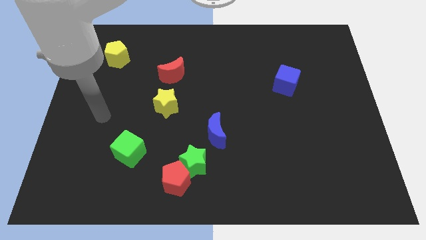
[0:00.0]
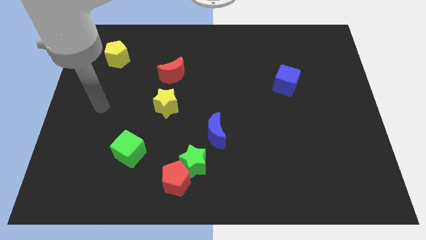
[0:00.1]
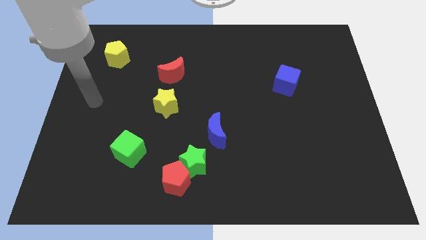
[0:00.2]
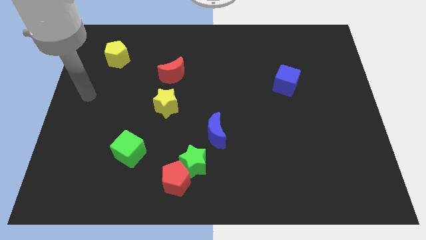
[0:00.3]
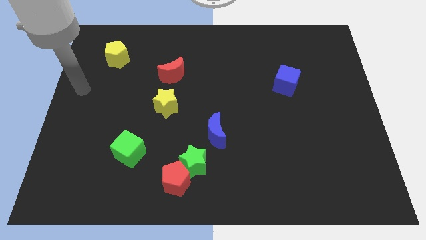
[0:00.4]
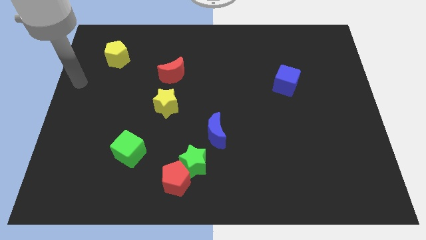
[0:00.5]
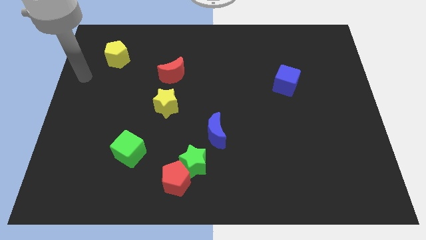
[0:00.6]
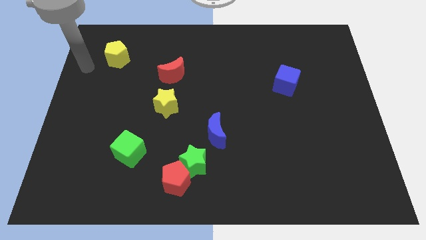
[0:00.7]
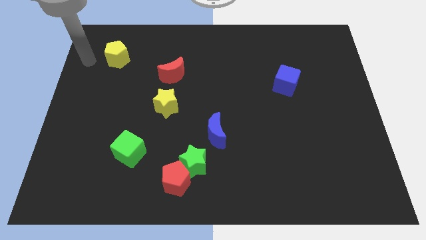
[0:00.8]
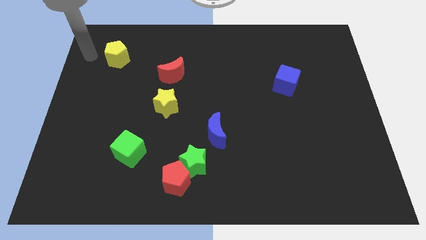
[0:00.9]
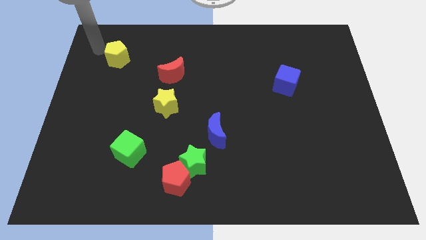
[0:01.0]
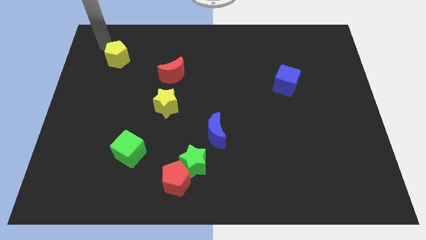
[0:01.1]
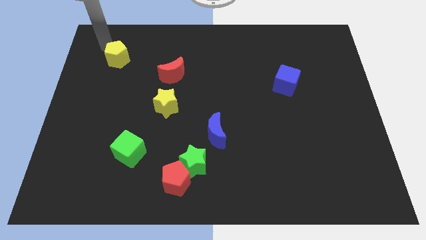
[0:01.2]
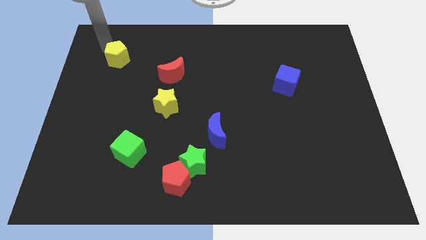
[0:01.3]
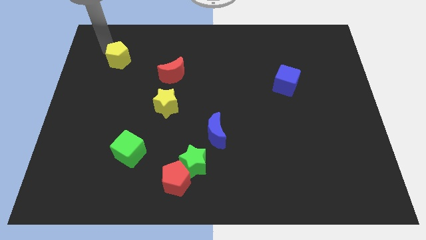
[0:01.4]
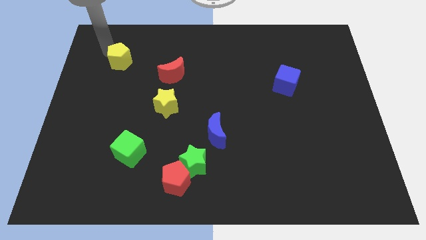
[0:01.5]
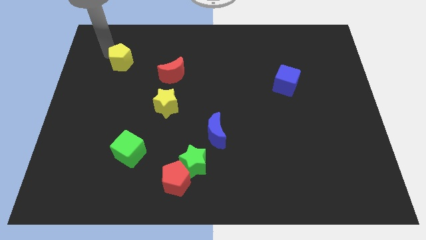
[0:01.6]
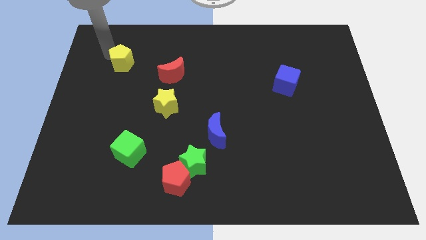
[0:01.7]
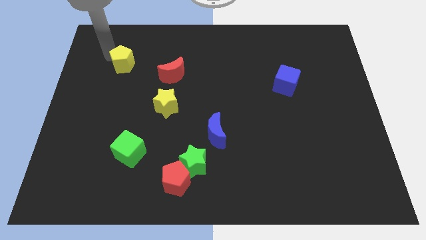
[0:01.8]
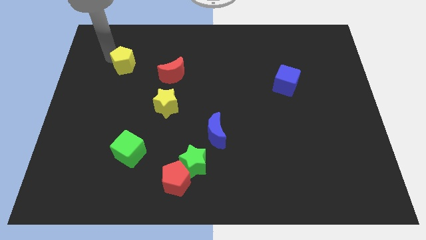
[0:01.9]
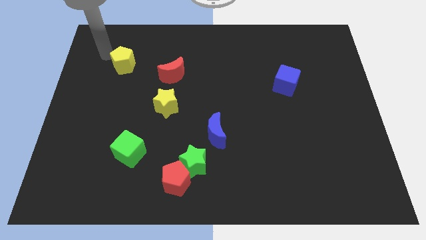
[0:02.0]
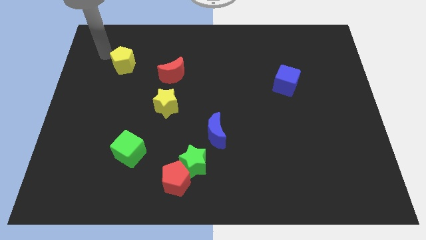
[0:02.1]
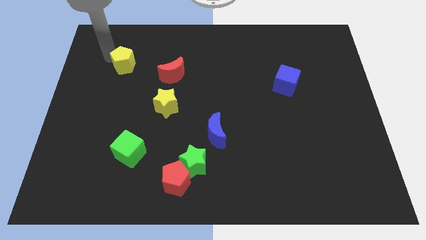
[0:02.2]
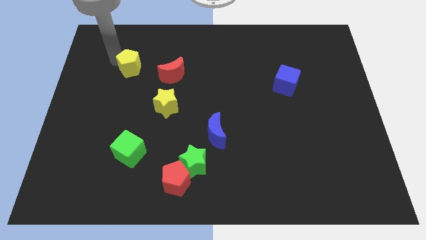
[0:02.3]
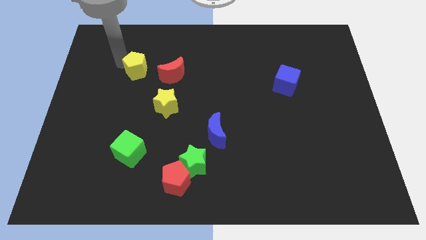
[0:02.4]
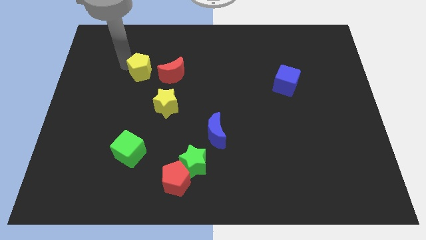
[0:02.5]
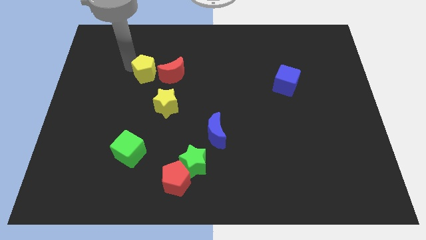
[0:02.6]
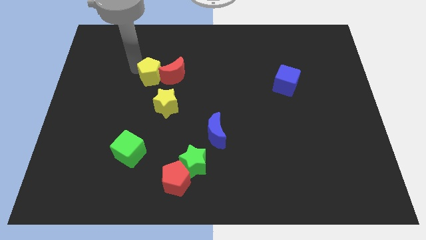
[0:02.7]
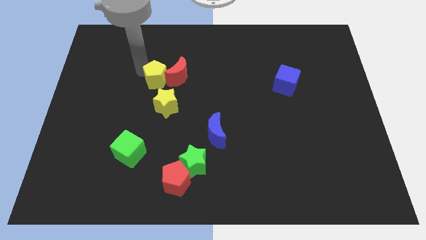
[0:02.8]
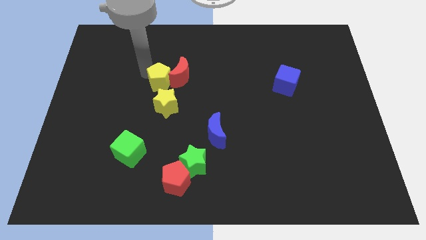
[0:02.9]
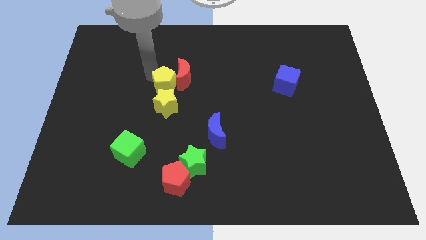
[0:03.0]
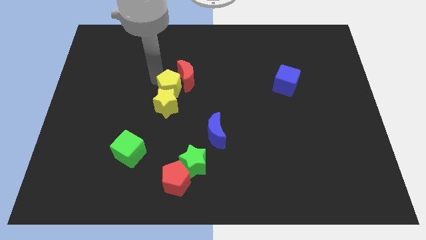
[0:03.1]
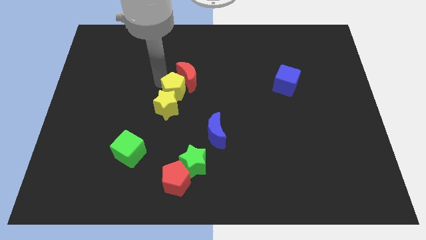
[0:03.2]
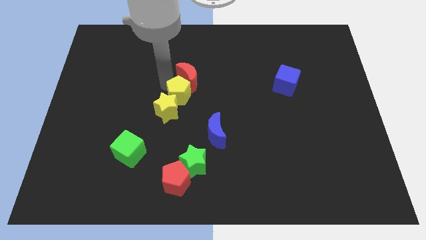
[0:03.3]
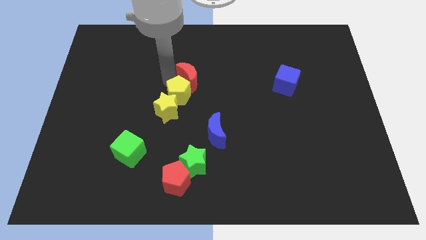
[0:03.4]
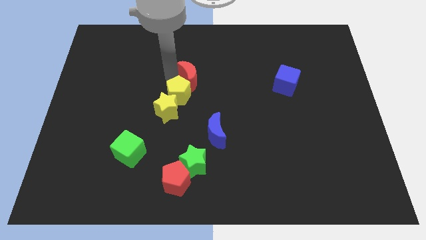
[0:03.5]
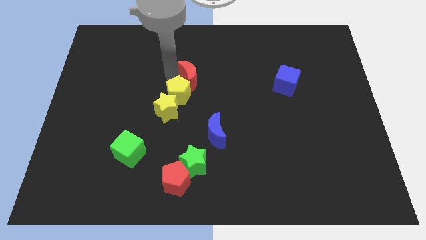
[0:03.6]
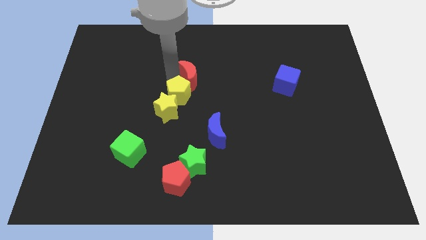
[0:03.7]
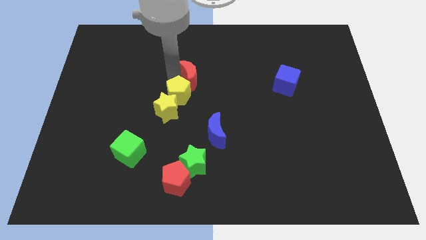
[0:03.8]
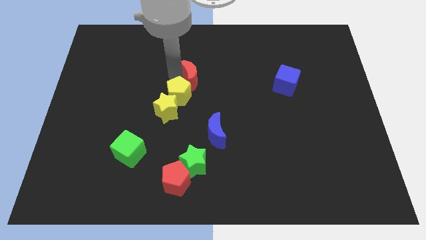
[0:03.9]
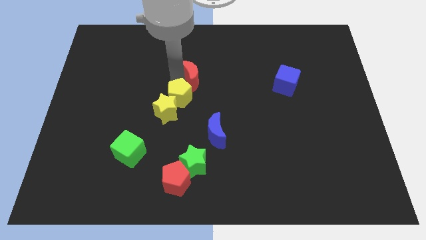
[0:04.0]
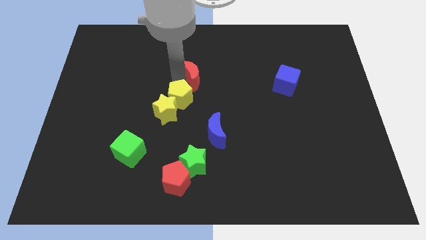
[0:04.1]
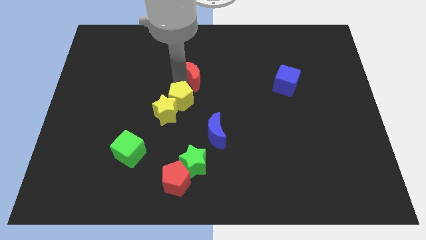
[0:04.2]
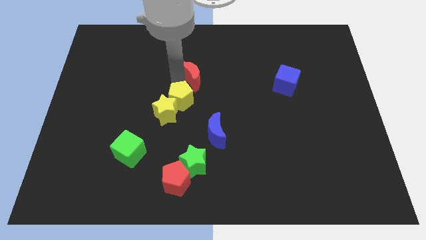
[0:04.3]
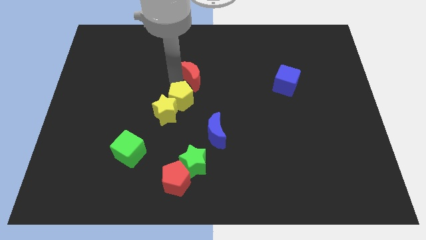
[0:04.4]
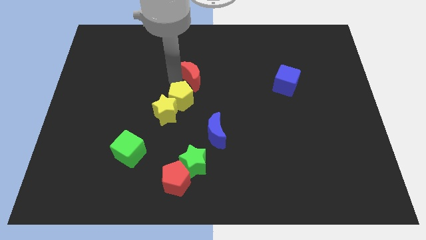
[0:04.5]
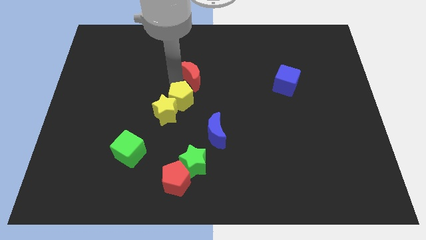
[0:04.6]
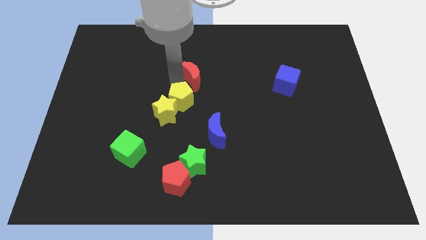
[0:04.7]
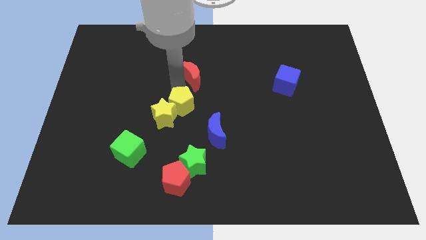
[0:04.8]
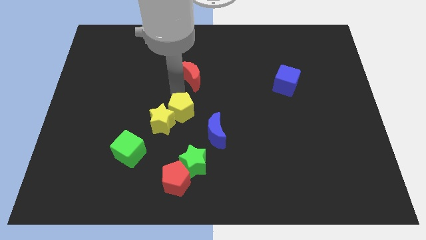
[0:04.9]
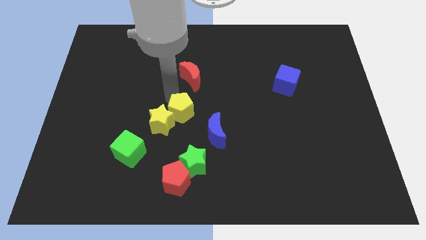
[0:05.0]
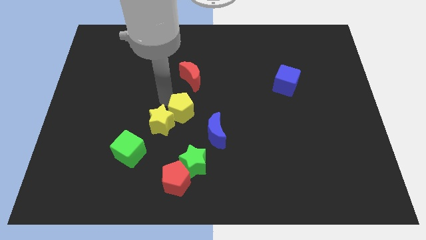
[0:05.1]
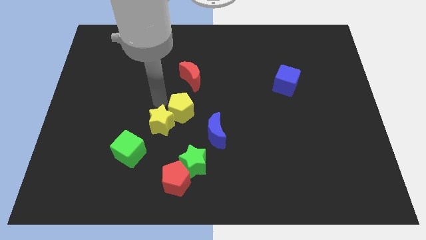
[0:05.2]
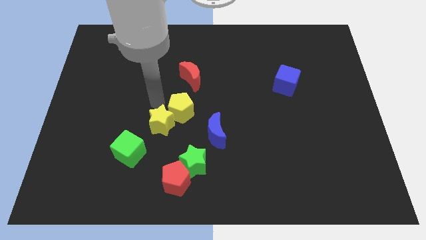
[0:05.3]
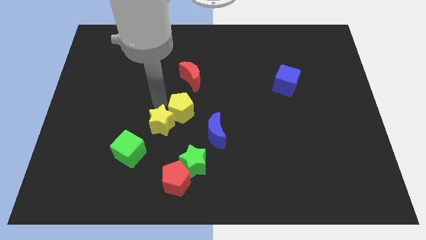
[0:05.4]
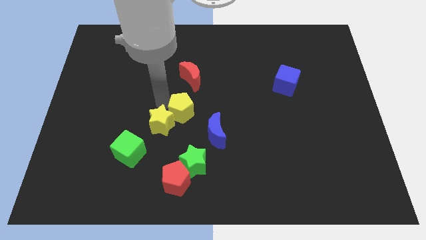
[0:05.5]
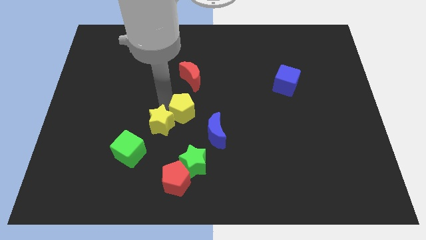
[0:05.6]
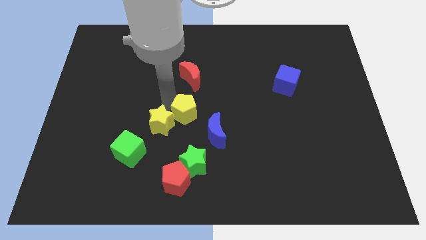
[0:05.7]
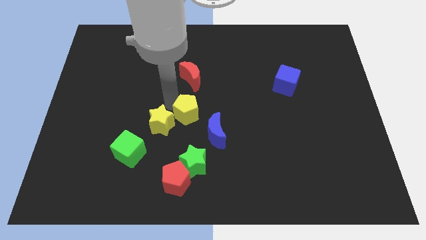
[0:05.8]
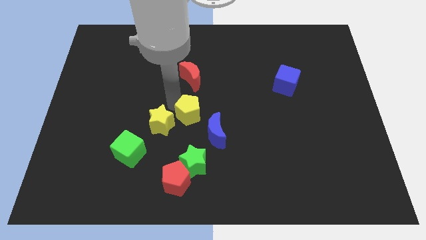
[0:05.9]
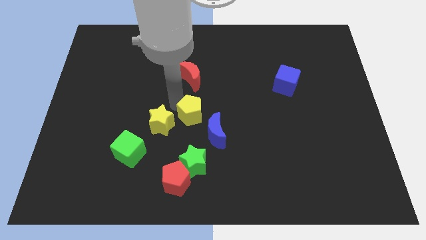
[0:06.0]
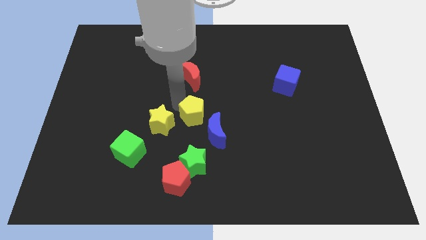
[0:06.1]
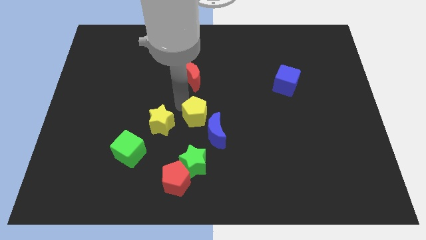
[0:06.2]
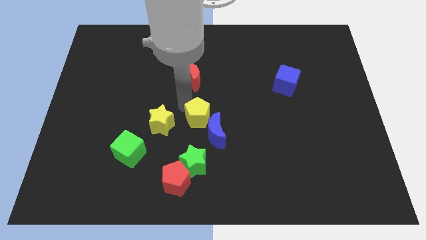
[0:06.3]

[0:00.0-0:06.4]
push the yellow pentagon to the blue moon

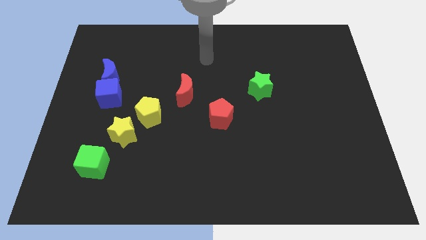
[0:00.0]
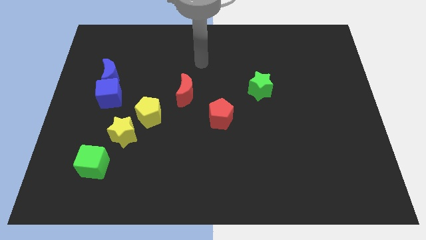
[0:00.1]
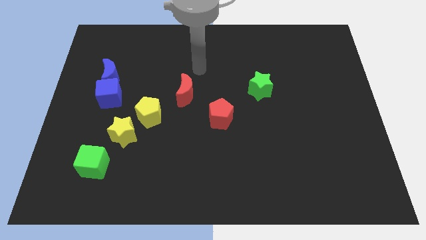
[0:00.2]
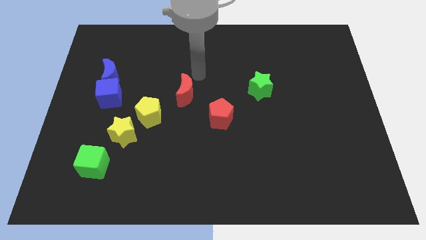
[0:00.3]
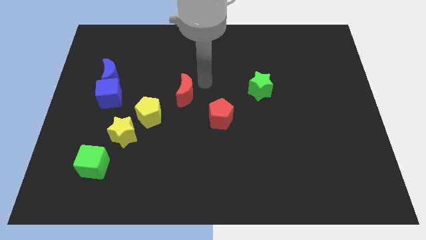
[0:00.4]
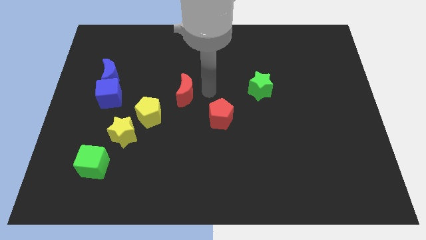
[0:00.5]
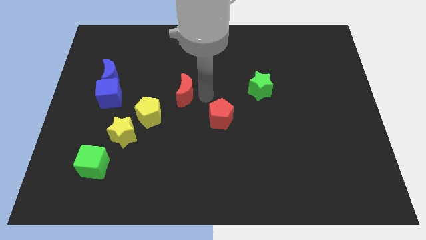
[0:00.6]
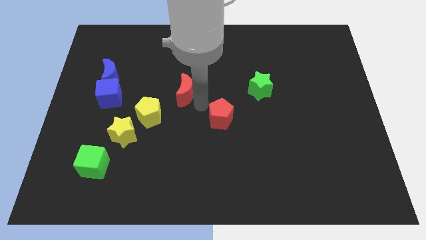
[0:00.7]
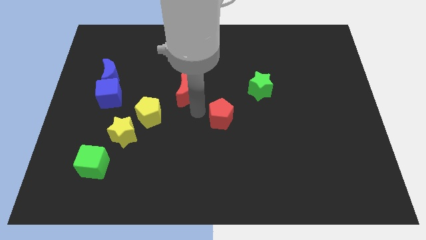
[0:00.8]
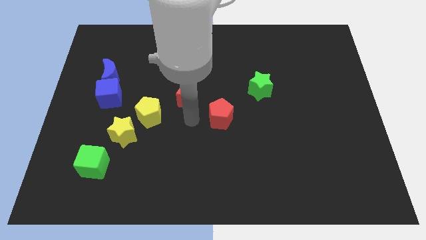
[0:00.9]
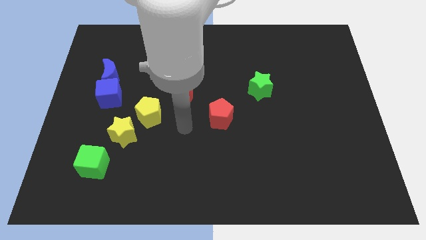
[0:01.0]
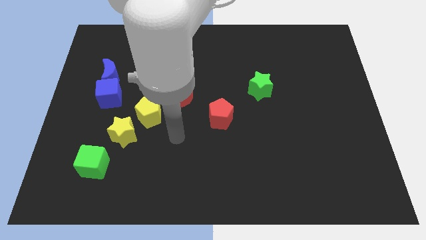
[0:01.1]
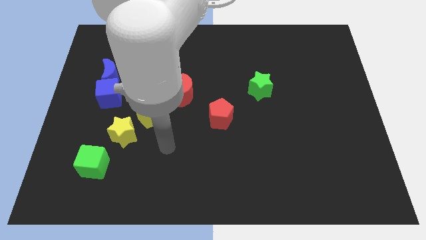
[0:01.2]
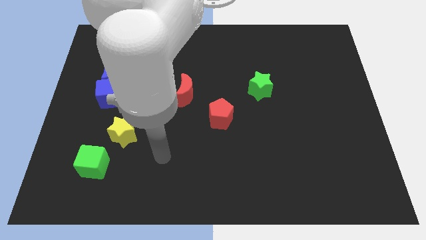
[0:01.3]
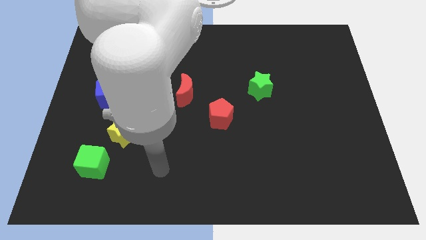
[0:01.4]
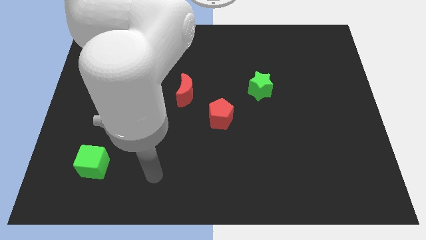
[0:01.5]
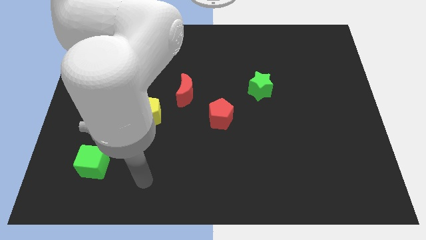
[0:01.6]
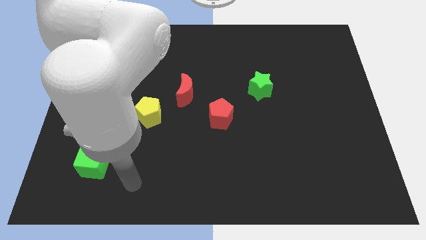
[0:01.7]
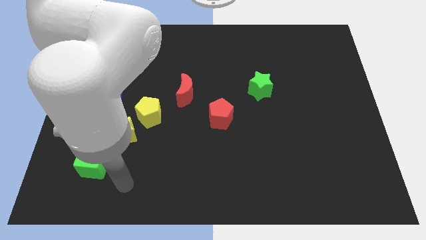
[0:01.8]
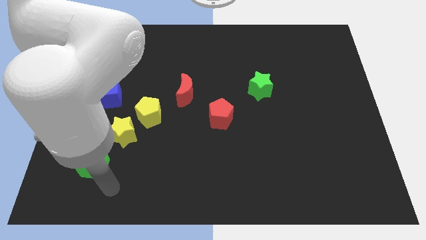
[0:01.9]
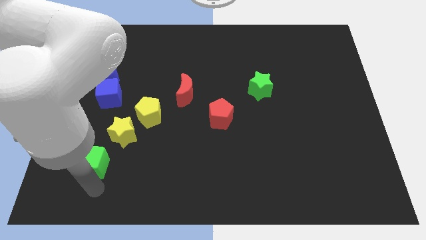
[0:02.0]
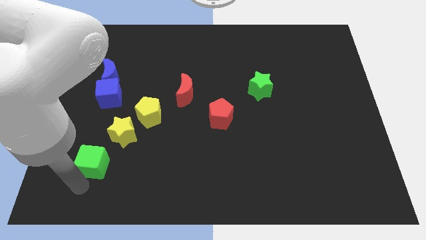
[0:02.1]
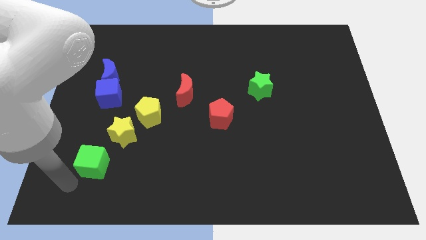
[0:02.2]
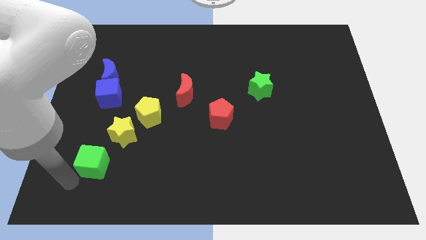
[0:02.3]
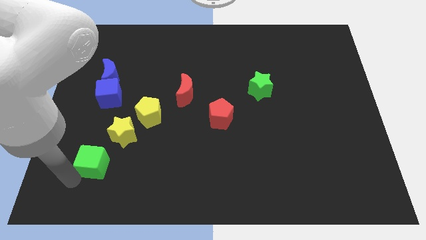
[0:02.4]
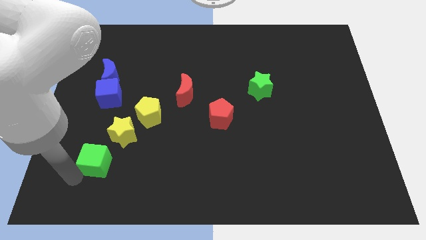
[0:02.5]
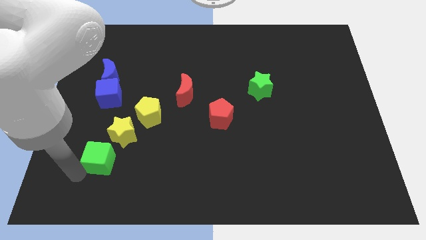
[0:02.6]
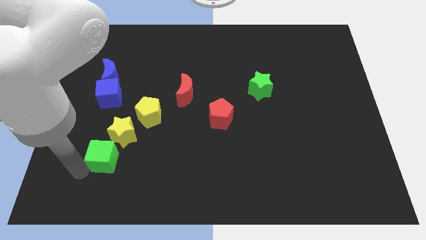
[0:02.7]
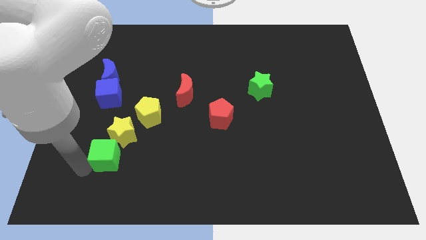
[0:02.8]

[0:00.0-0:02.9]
push the green cube next to the yellow star
